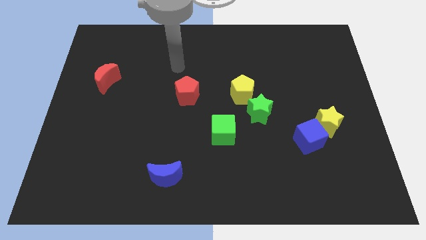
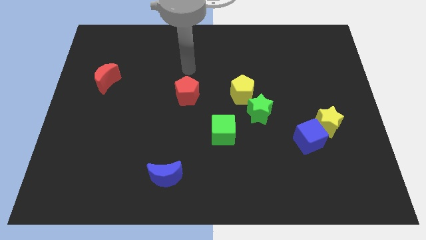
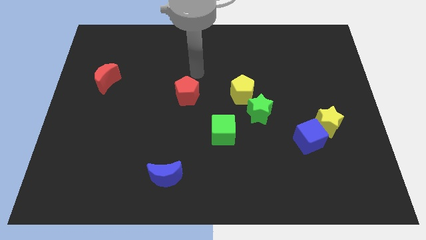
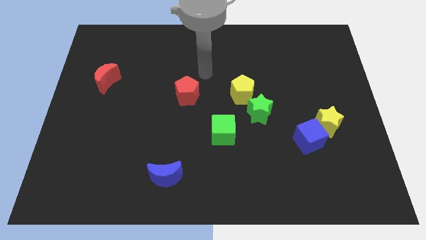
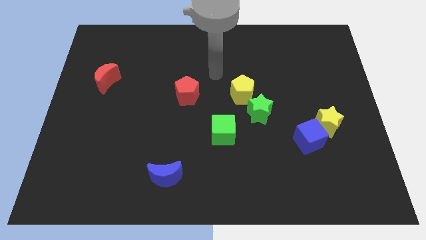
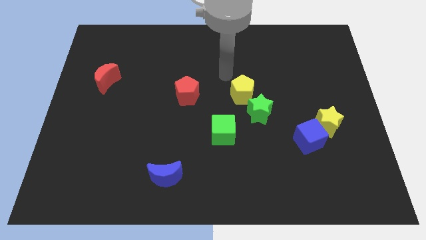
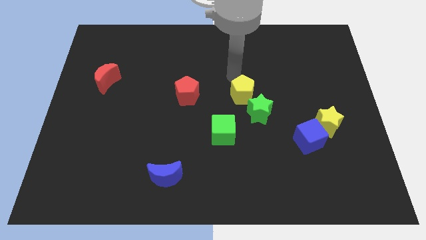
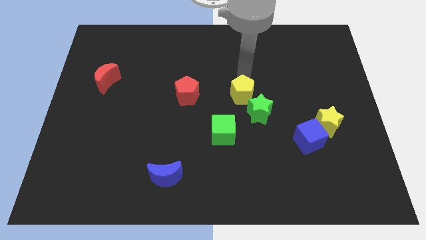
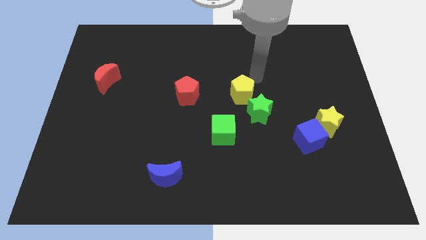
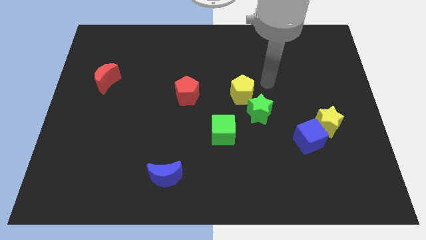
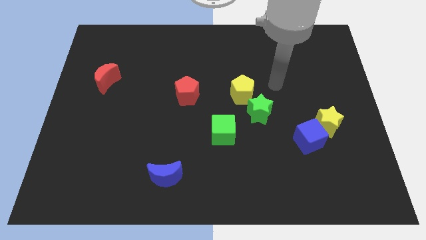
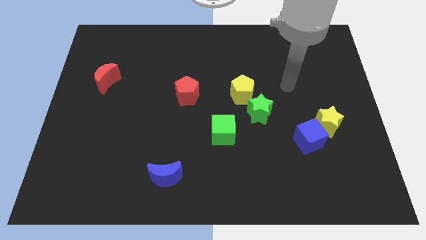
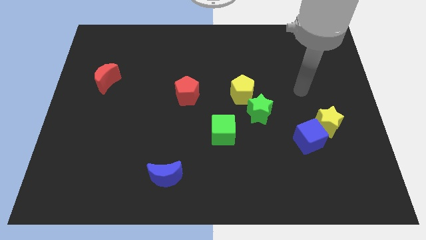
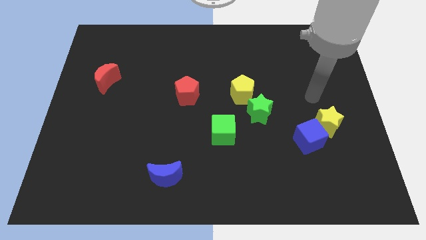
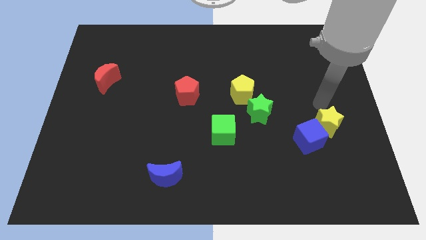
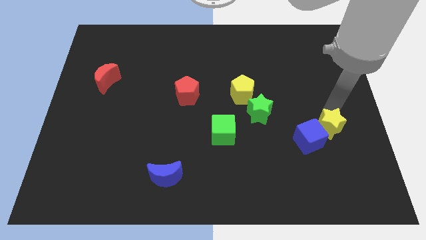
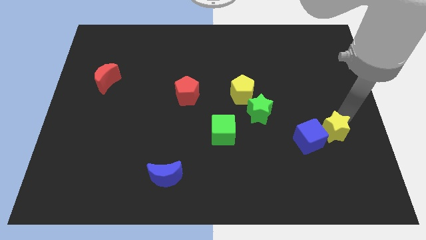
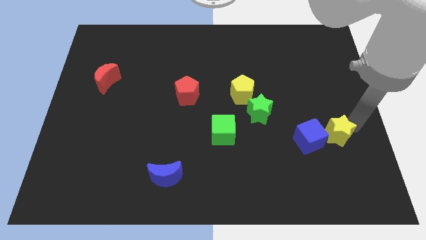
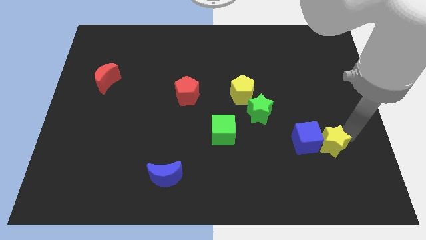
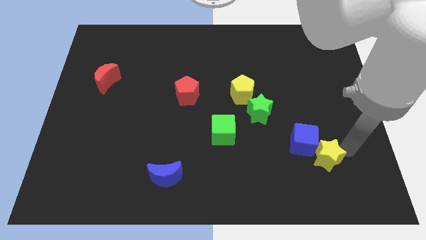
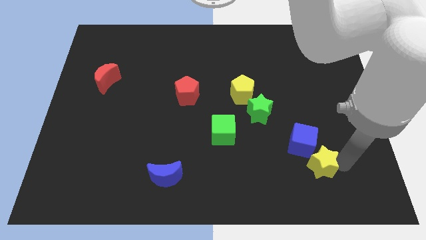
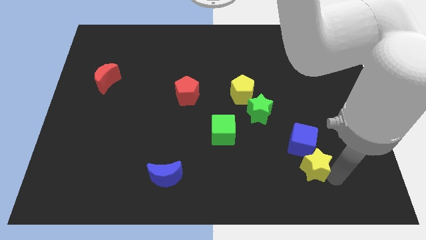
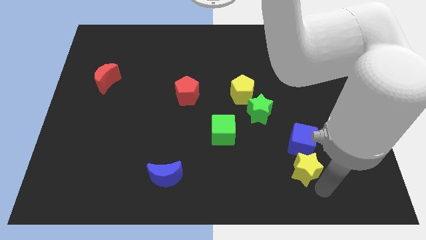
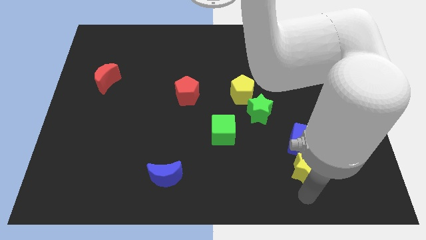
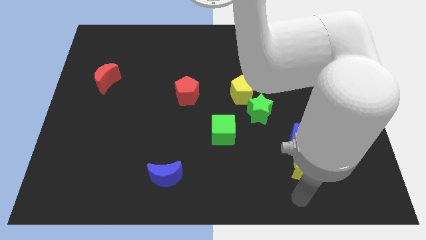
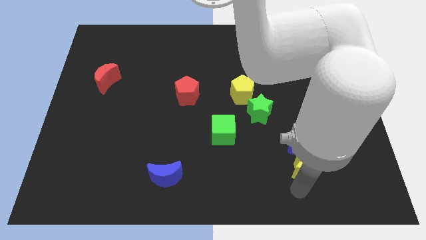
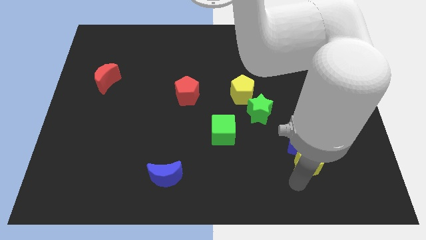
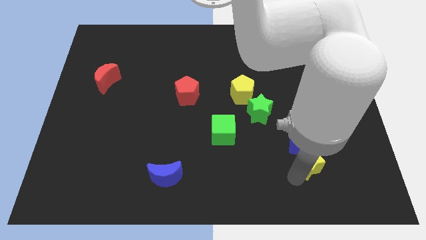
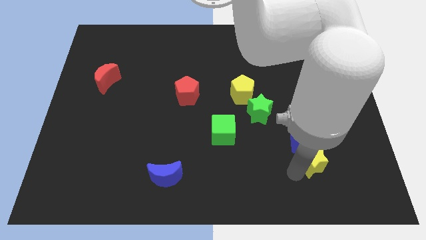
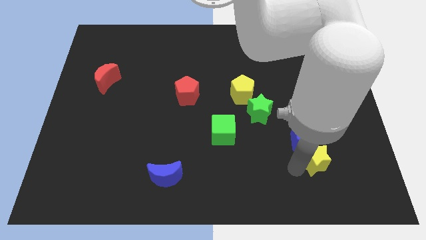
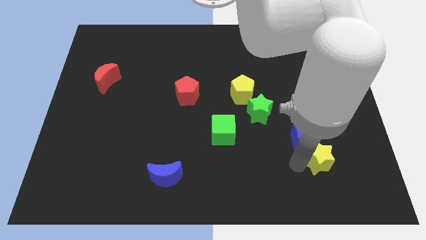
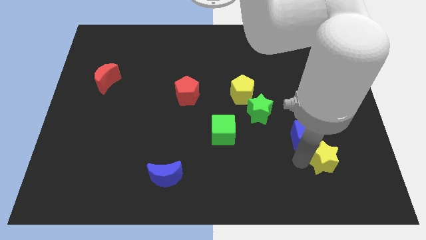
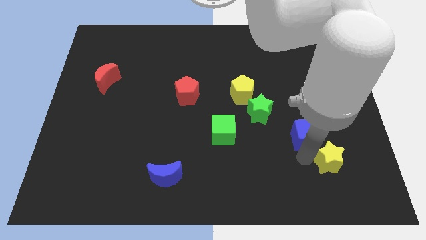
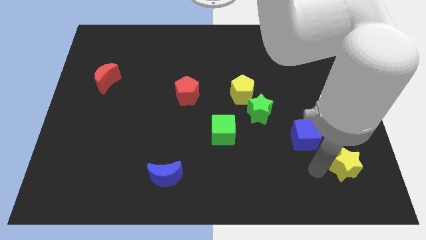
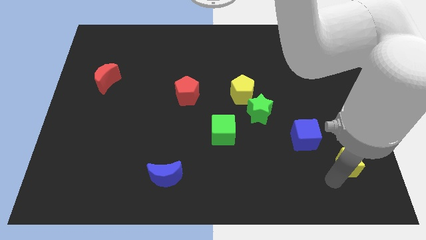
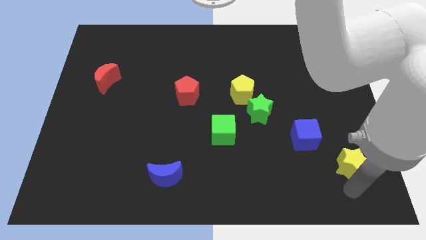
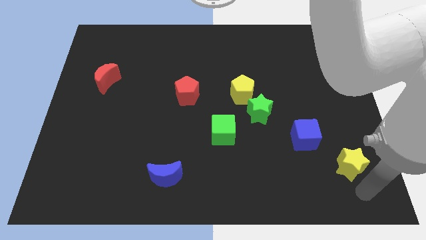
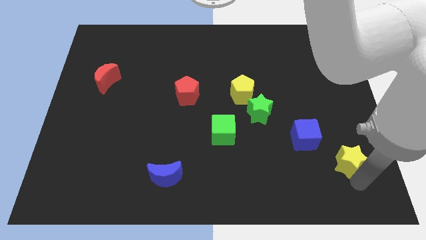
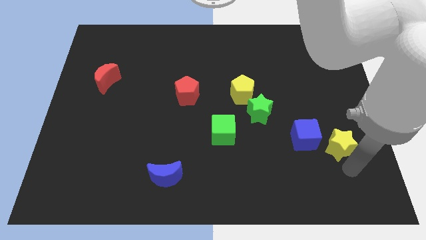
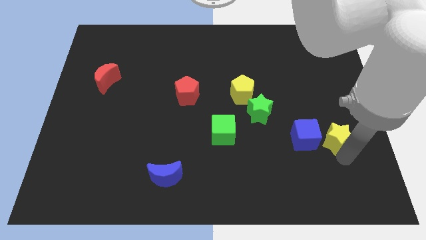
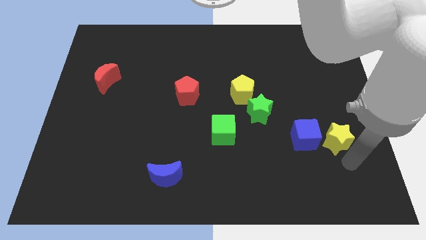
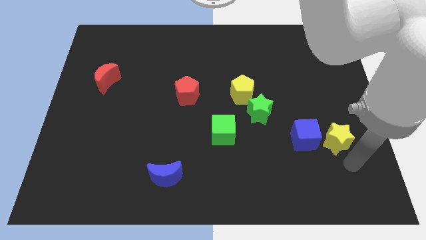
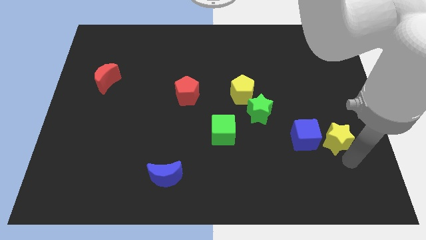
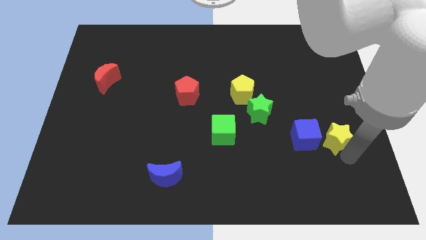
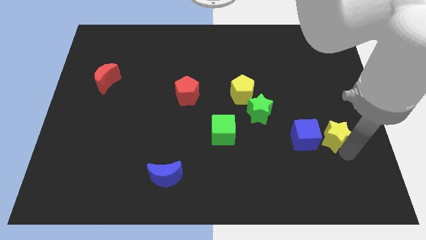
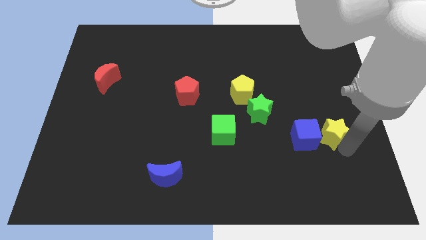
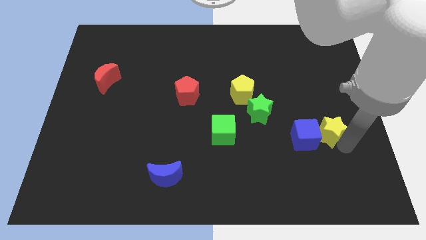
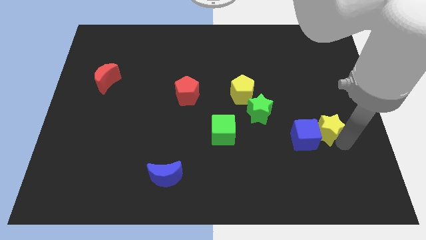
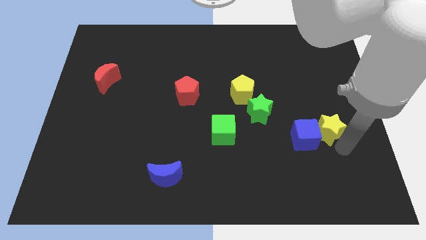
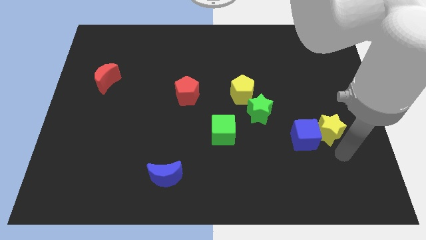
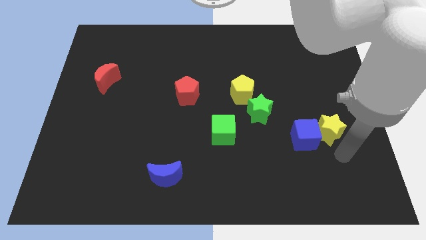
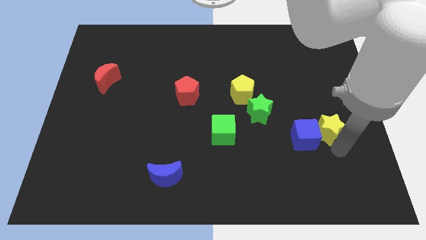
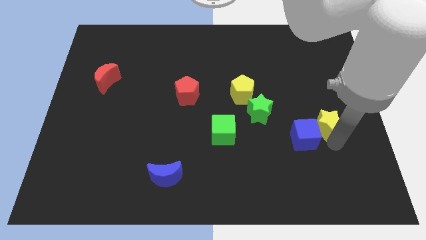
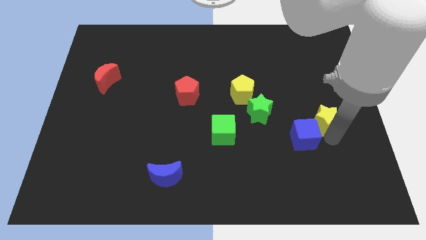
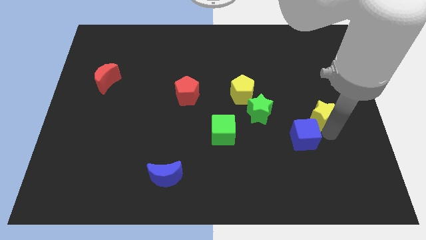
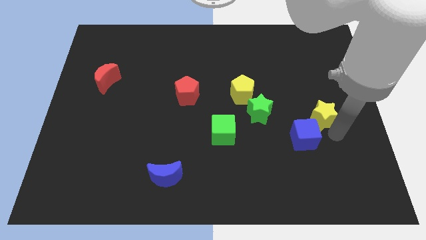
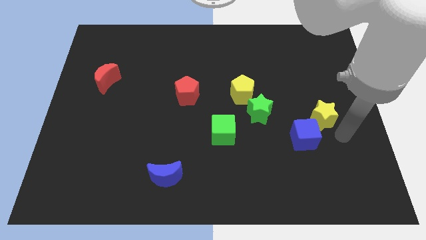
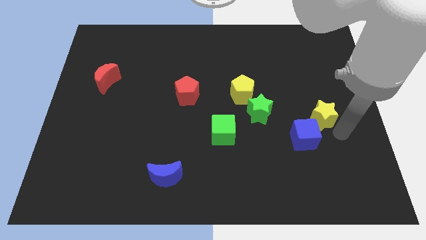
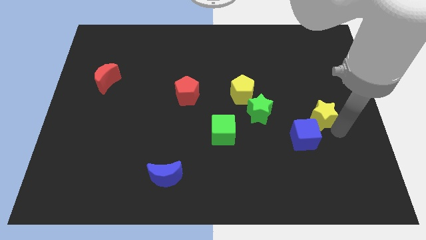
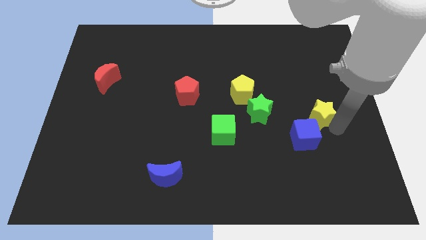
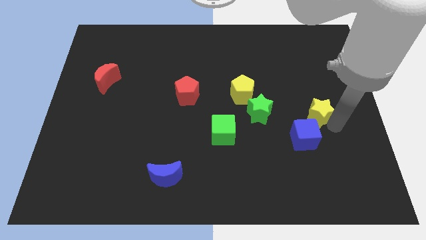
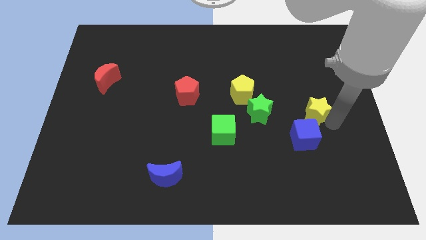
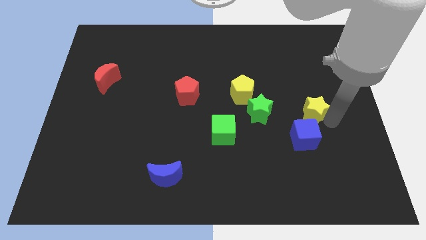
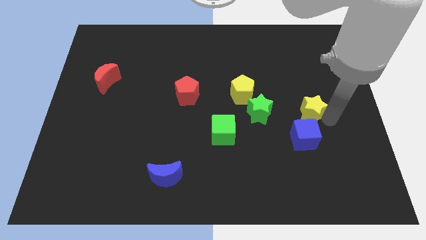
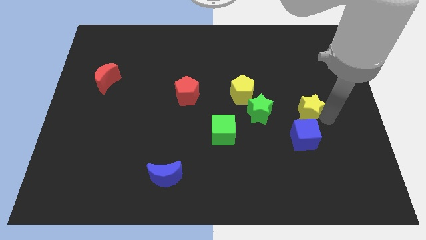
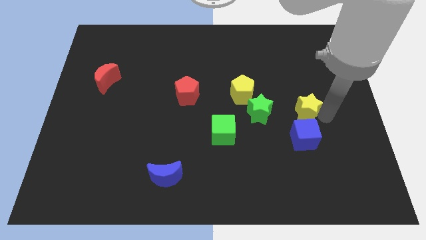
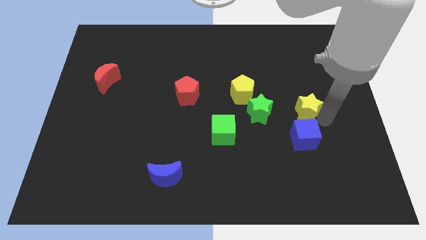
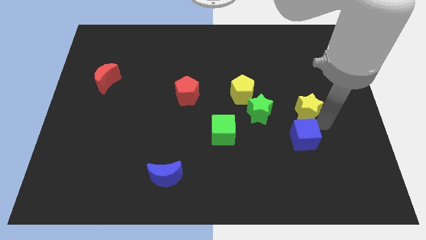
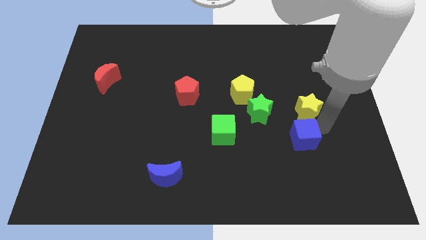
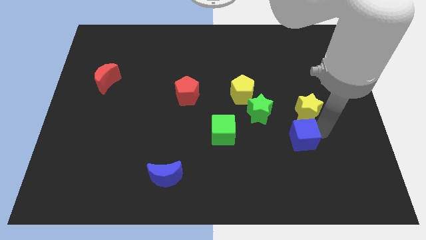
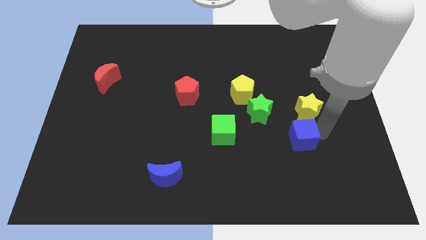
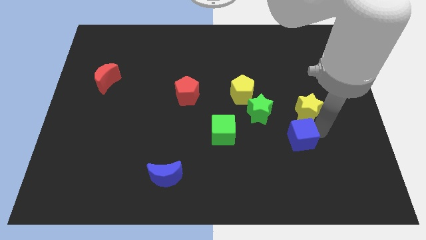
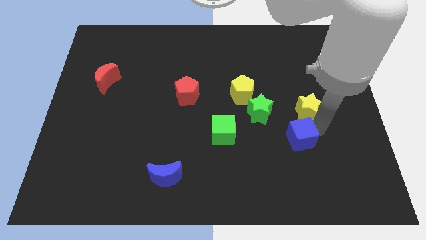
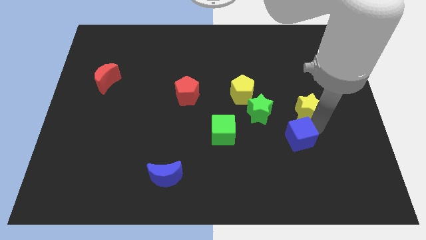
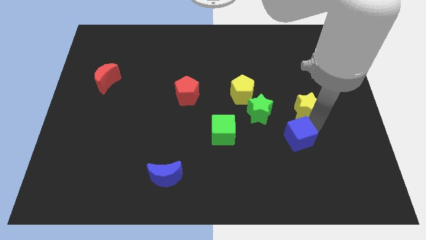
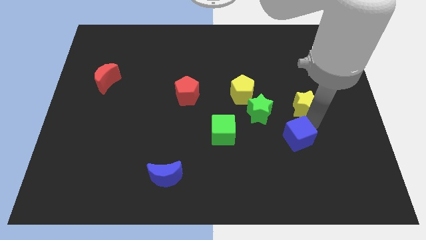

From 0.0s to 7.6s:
move the yellow star diagonally upwards and to the left somewhat

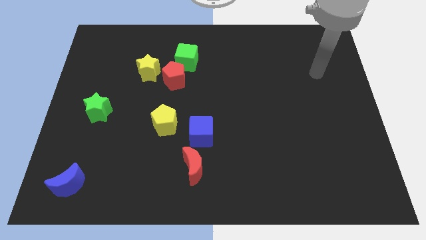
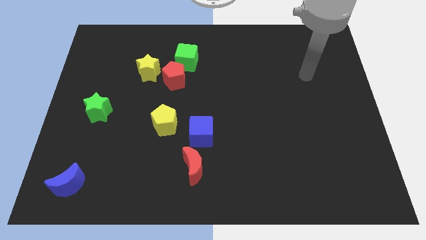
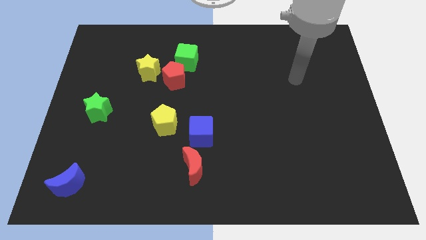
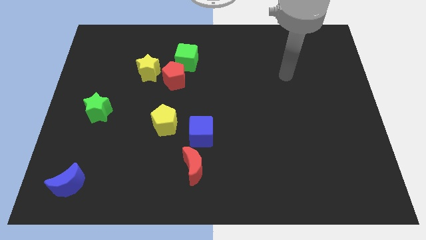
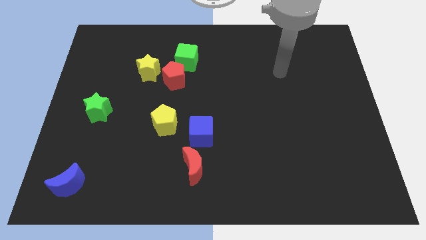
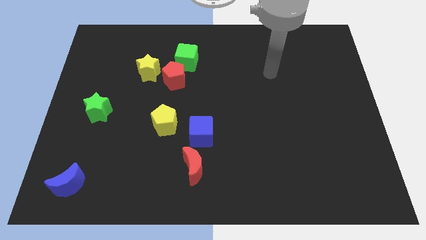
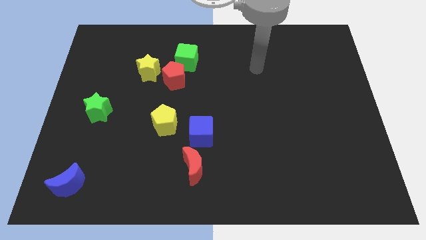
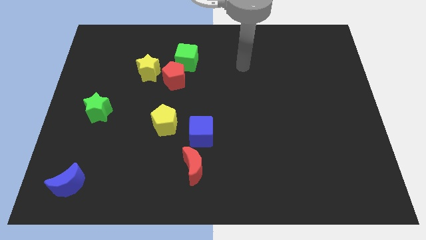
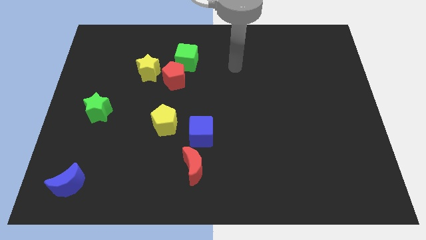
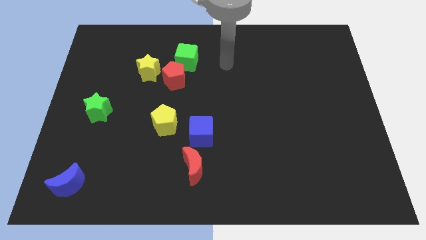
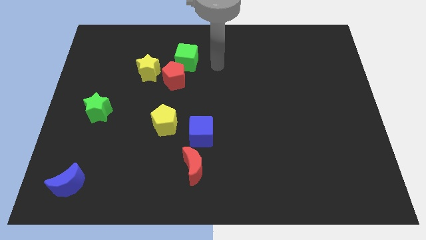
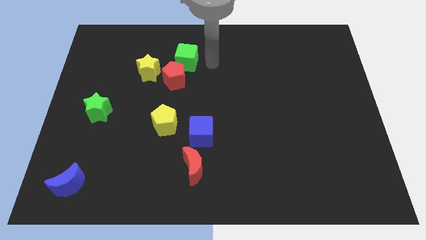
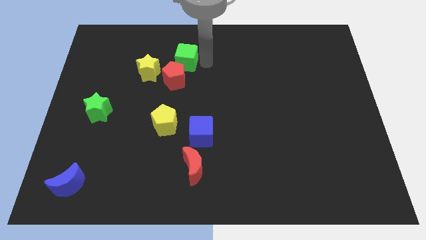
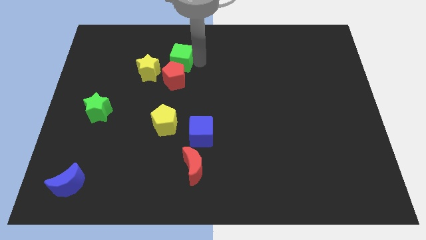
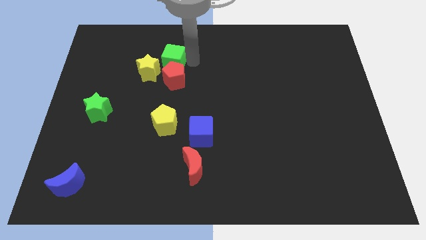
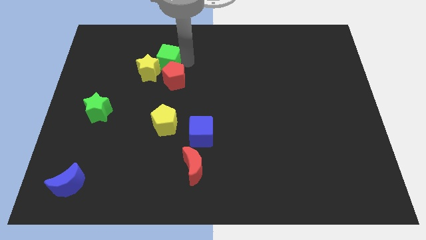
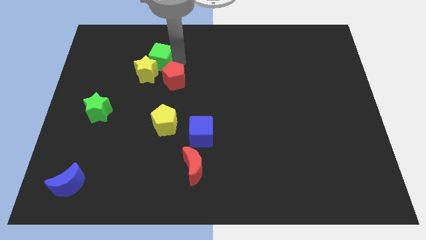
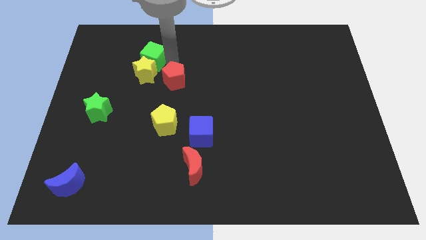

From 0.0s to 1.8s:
slightly slide the green cube left
